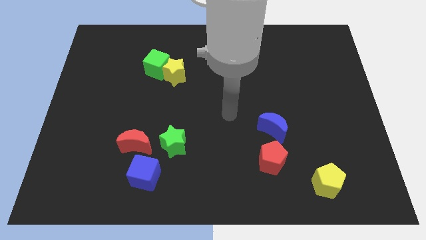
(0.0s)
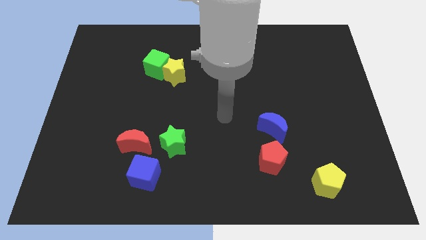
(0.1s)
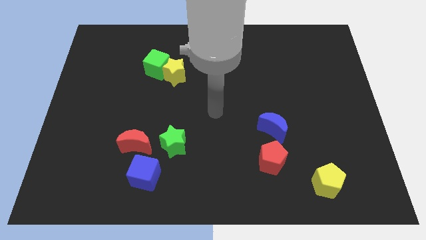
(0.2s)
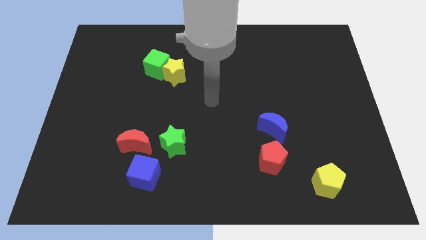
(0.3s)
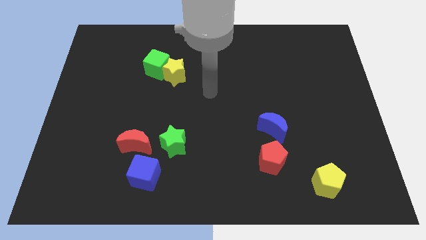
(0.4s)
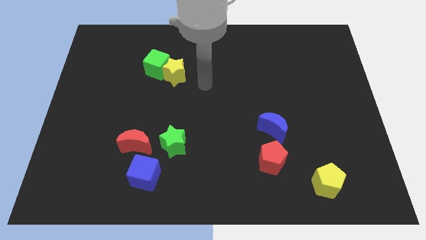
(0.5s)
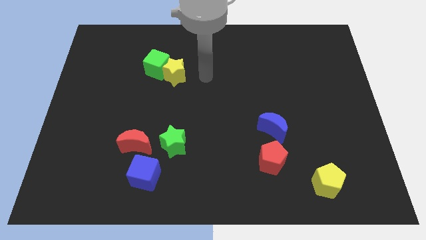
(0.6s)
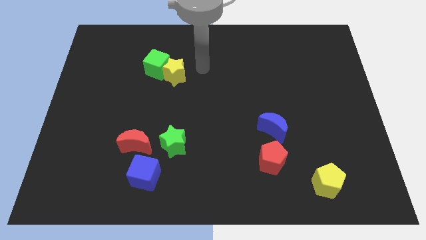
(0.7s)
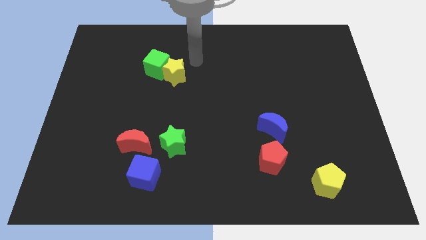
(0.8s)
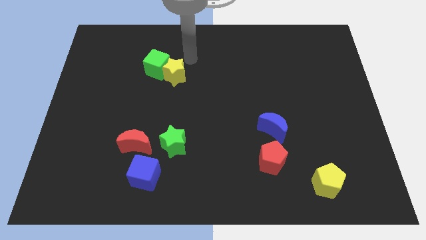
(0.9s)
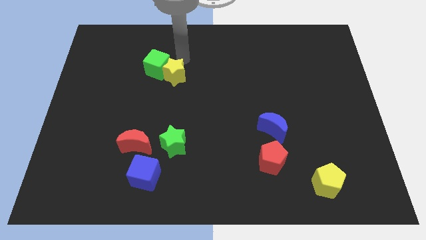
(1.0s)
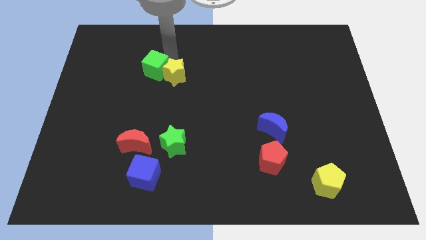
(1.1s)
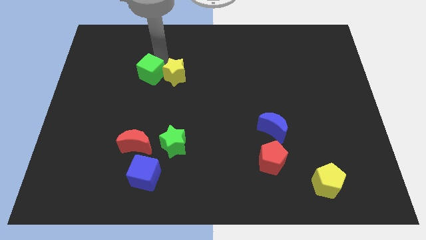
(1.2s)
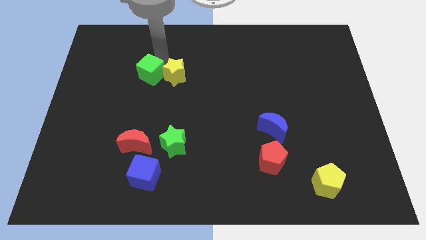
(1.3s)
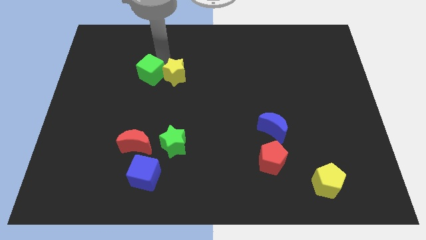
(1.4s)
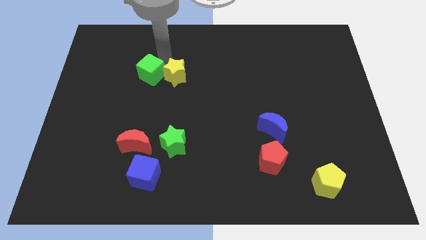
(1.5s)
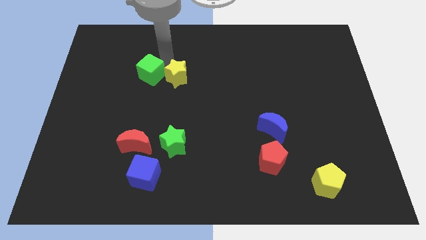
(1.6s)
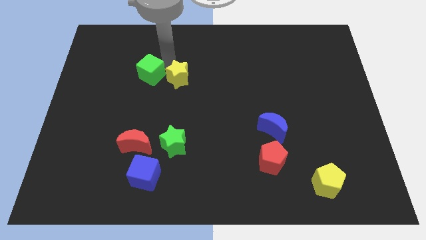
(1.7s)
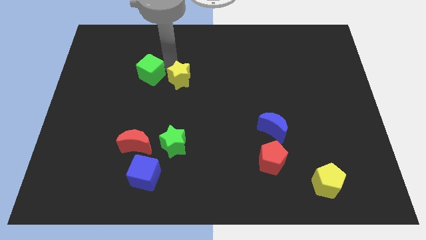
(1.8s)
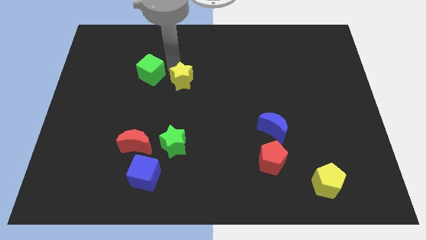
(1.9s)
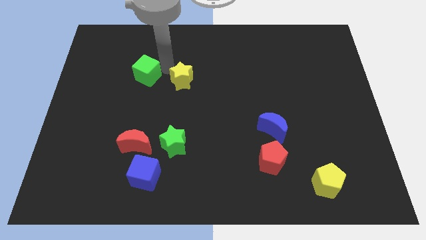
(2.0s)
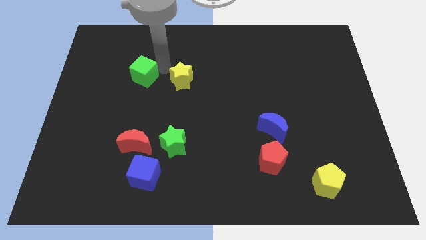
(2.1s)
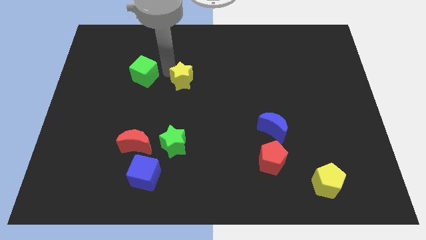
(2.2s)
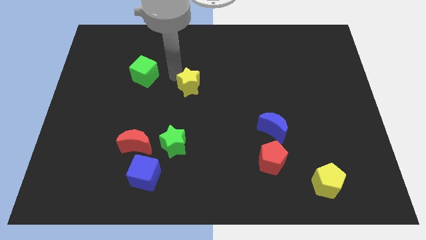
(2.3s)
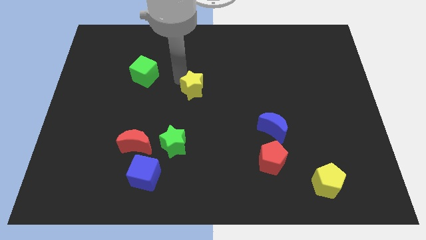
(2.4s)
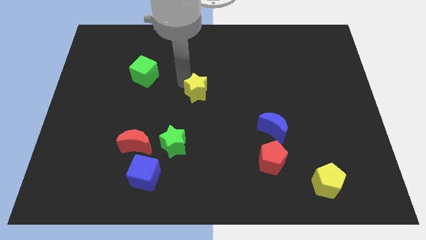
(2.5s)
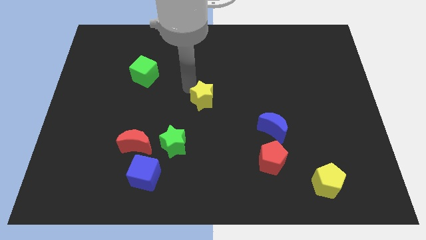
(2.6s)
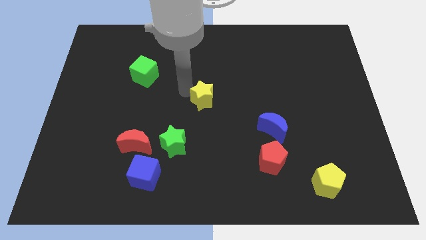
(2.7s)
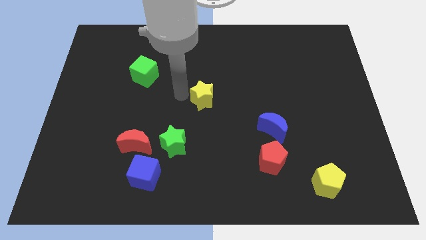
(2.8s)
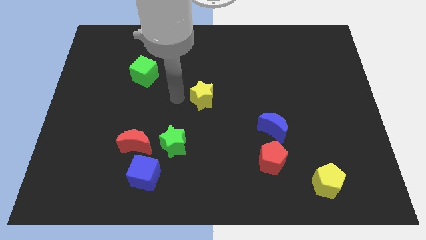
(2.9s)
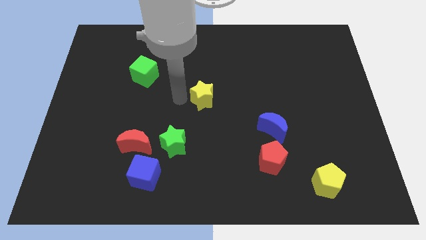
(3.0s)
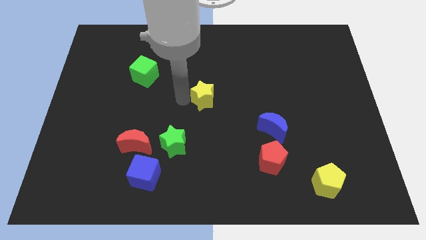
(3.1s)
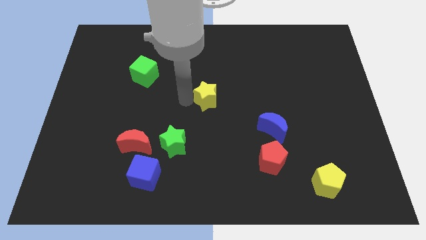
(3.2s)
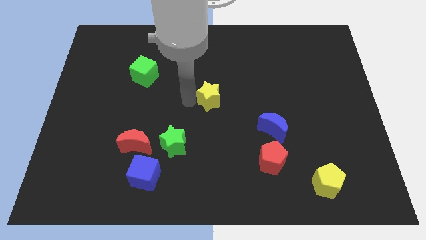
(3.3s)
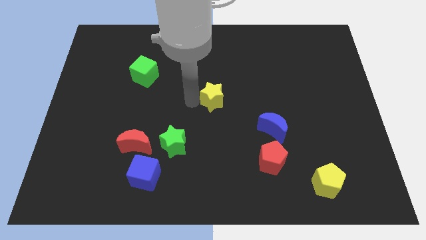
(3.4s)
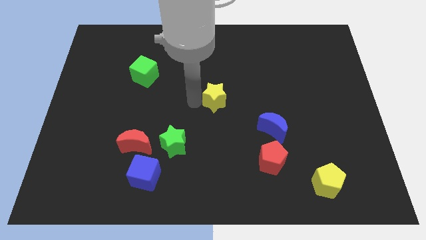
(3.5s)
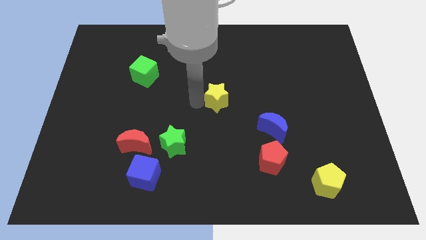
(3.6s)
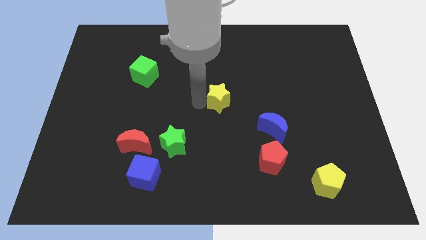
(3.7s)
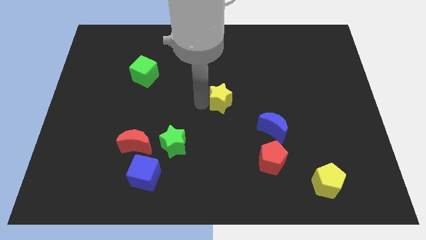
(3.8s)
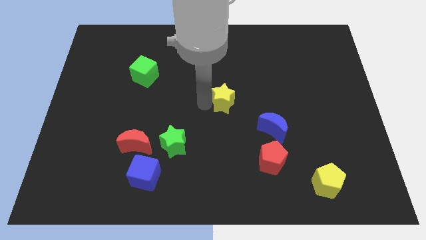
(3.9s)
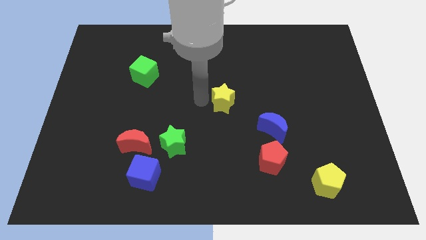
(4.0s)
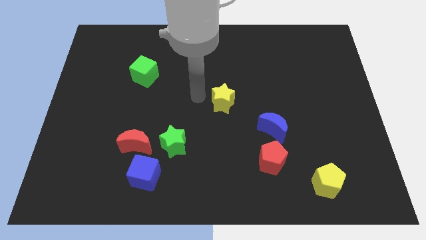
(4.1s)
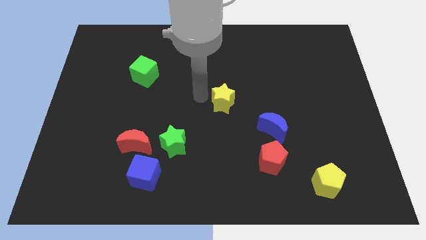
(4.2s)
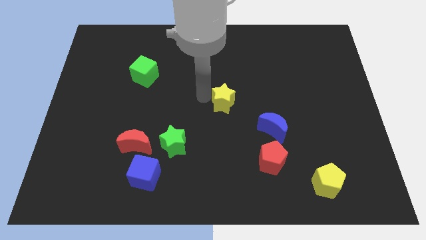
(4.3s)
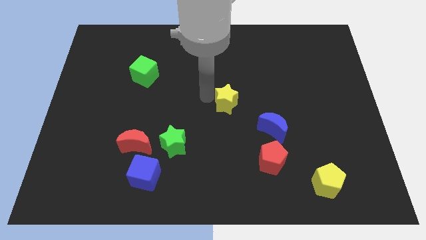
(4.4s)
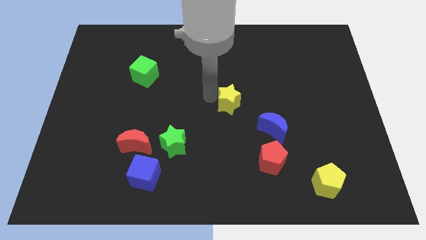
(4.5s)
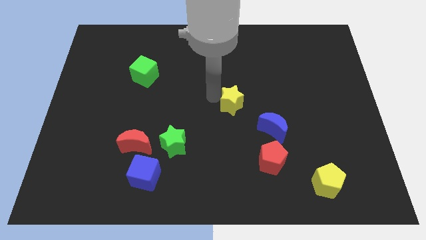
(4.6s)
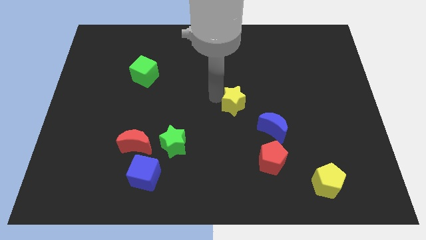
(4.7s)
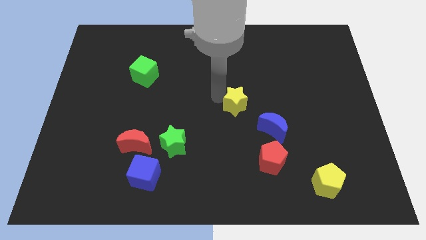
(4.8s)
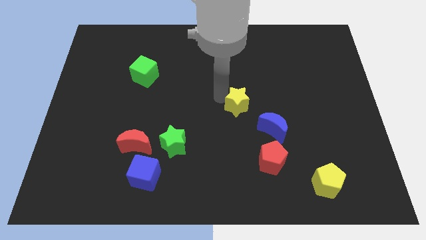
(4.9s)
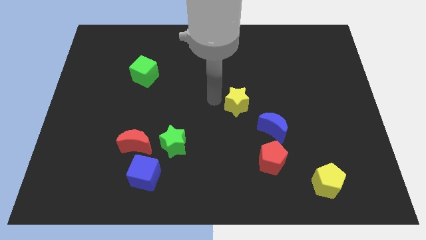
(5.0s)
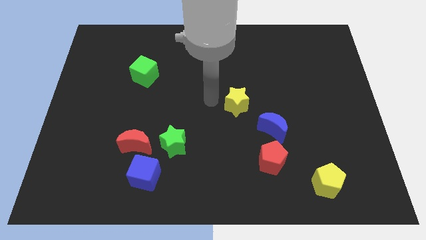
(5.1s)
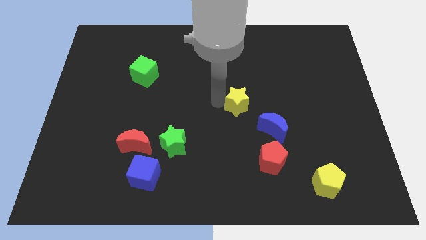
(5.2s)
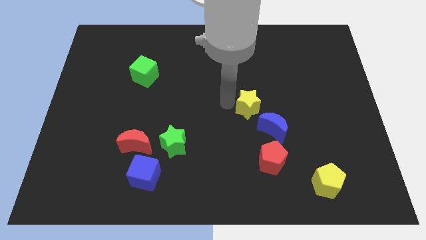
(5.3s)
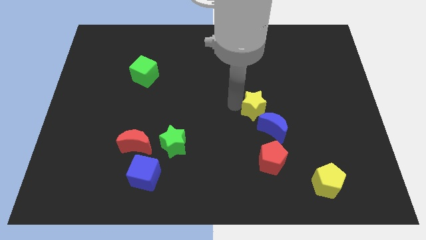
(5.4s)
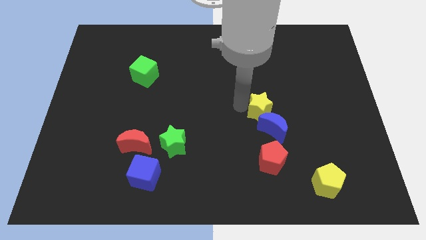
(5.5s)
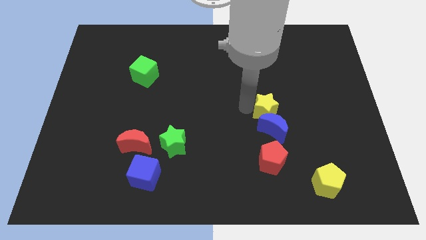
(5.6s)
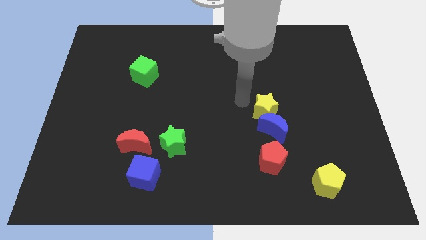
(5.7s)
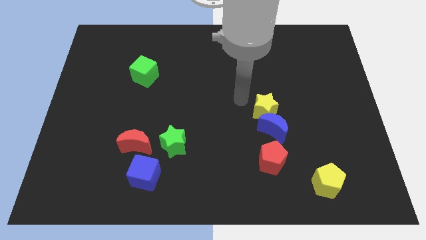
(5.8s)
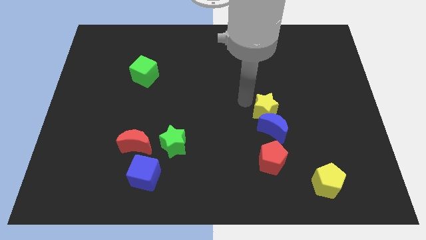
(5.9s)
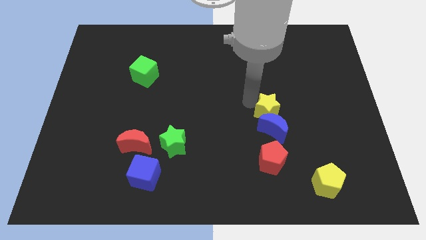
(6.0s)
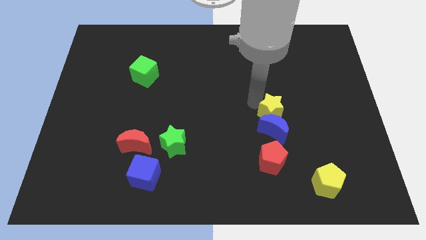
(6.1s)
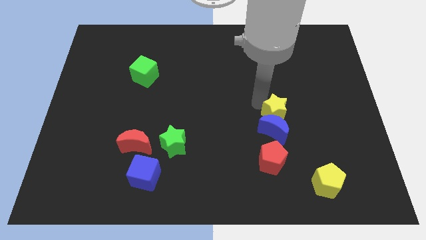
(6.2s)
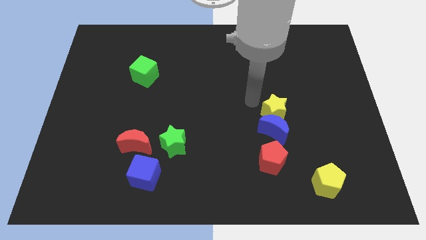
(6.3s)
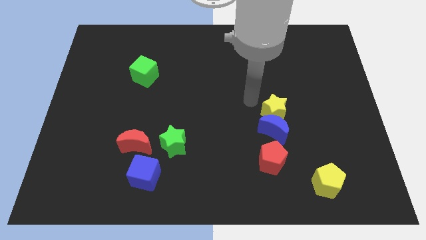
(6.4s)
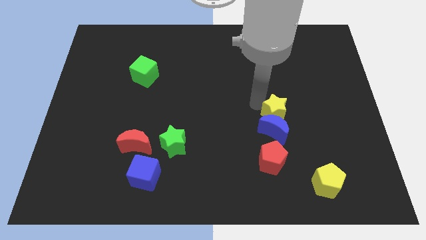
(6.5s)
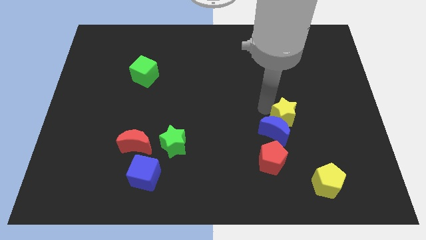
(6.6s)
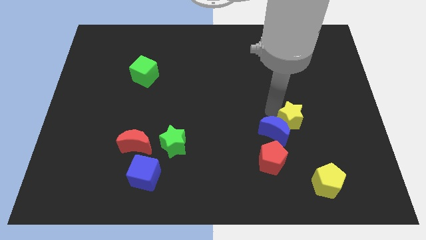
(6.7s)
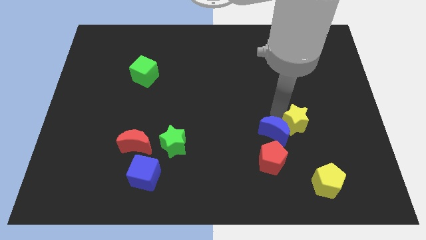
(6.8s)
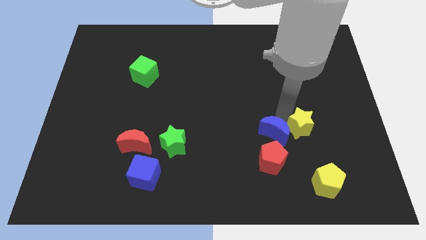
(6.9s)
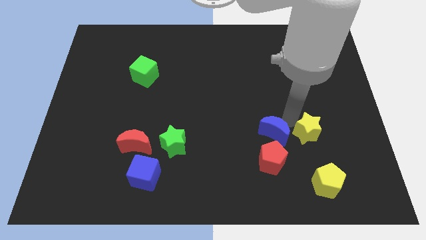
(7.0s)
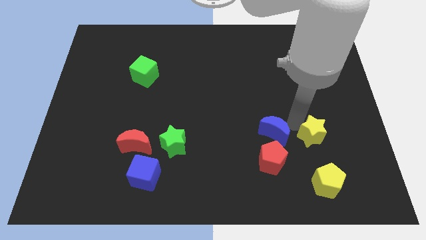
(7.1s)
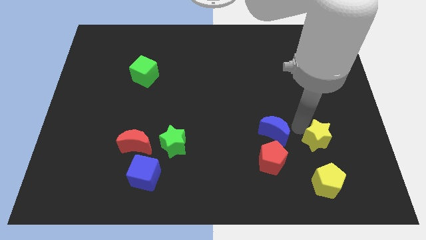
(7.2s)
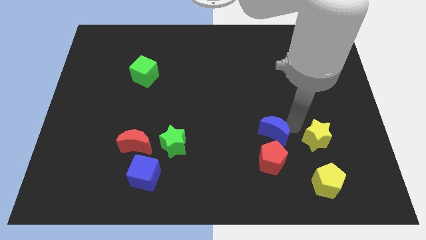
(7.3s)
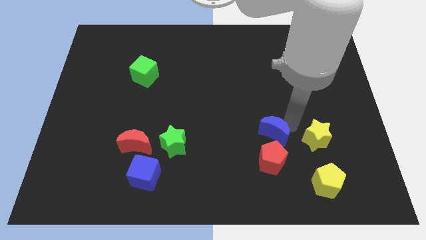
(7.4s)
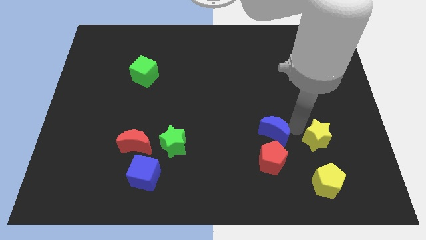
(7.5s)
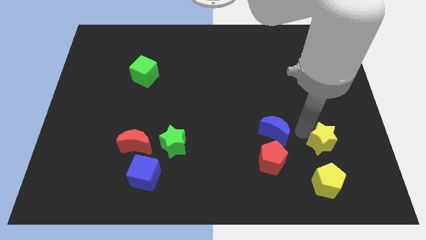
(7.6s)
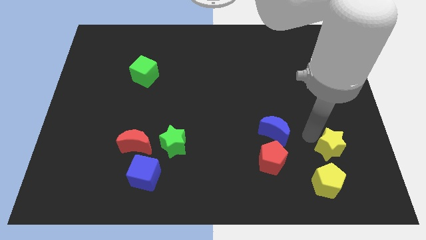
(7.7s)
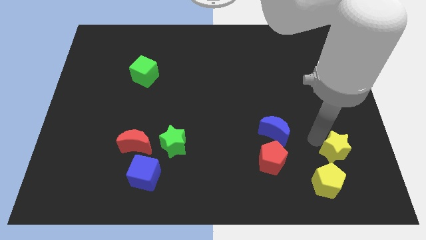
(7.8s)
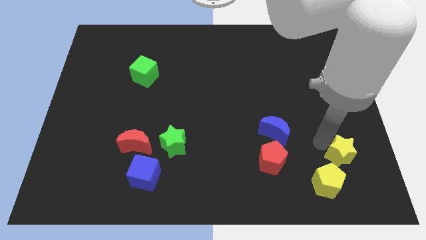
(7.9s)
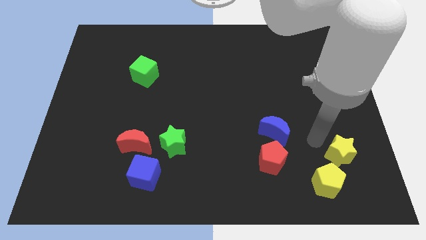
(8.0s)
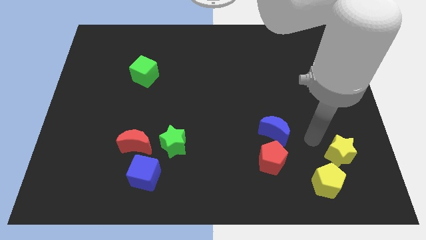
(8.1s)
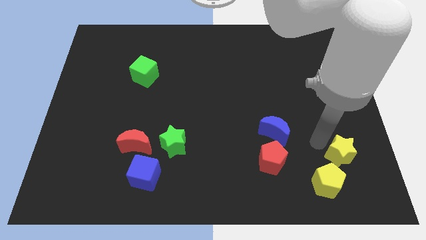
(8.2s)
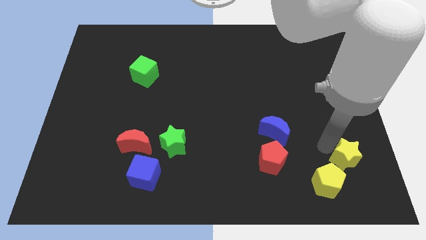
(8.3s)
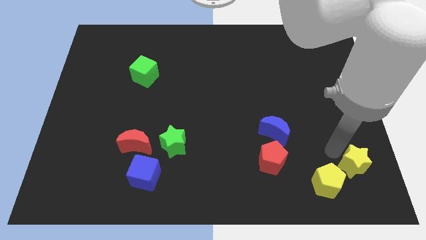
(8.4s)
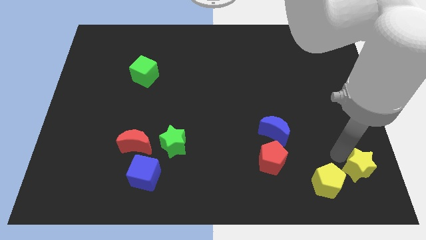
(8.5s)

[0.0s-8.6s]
put the yellow star to the bottom right corner
